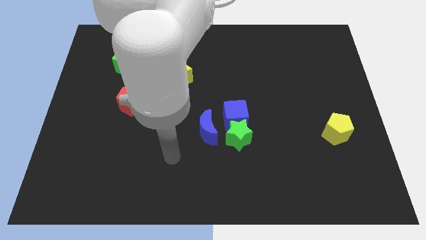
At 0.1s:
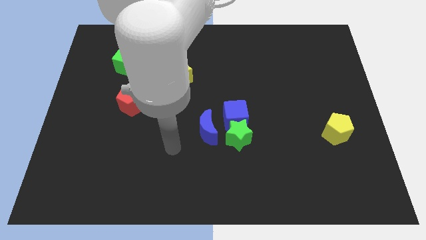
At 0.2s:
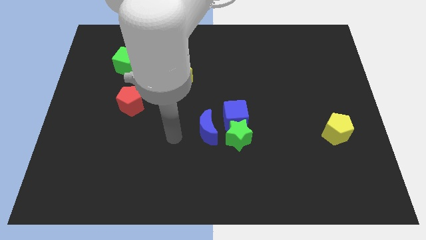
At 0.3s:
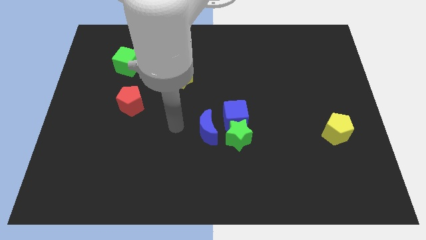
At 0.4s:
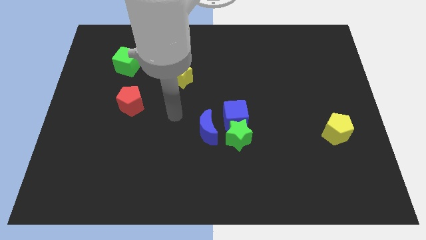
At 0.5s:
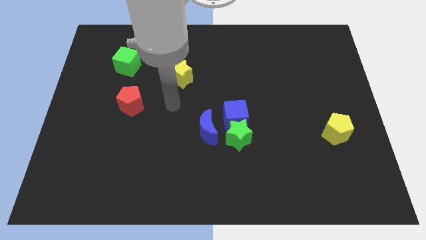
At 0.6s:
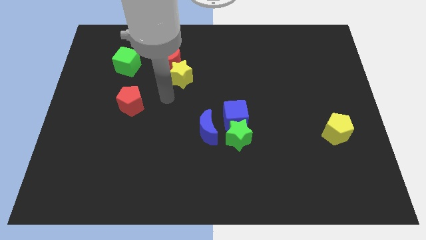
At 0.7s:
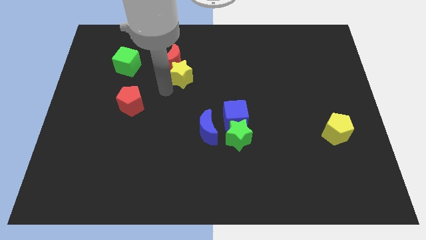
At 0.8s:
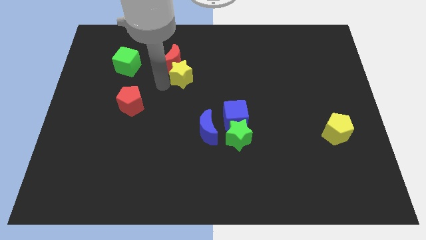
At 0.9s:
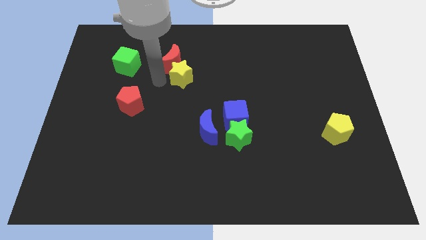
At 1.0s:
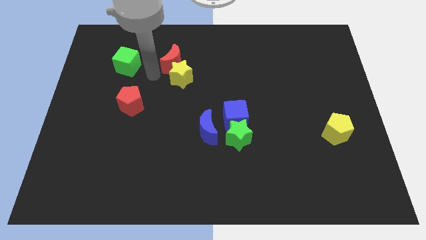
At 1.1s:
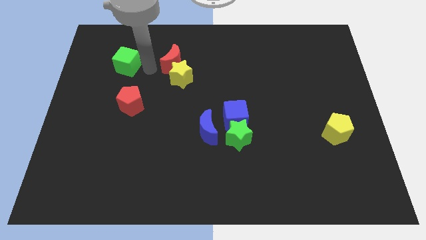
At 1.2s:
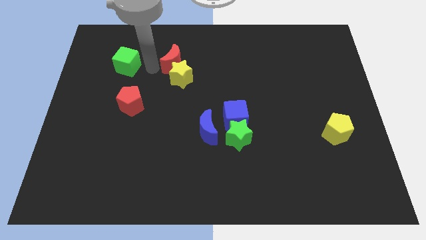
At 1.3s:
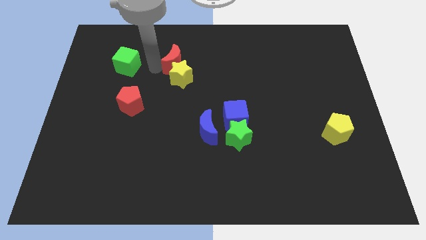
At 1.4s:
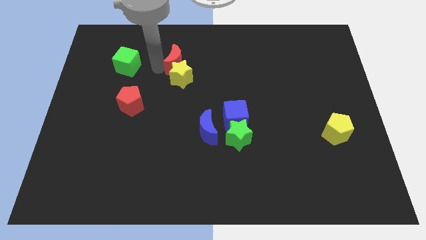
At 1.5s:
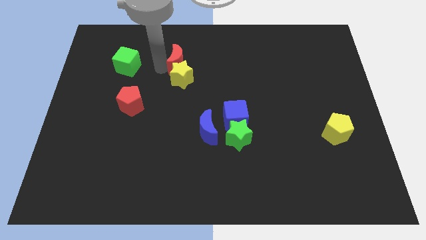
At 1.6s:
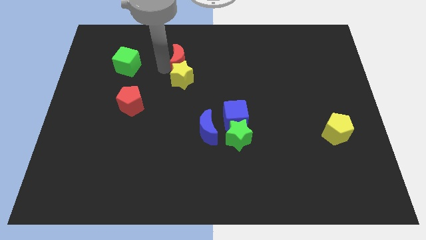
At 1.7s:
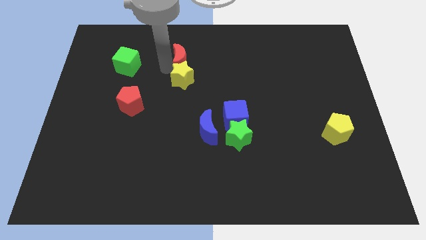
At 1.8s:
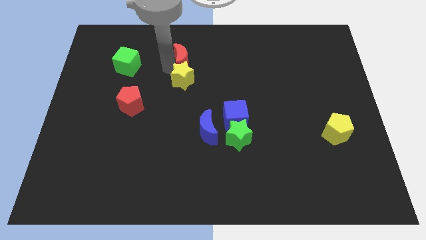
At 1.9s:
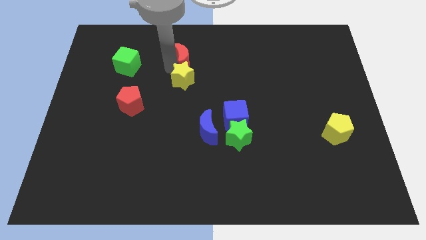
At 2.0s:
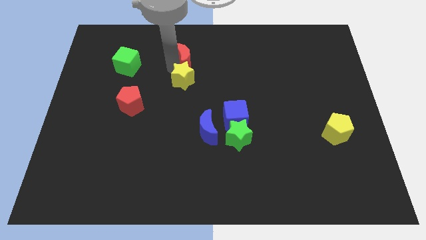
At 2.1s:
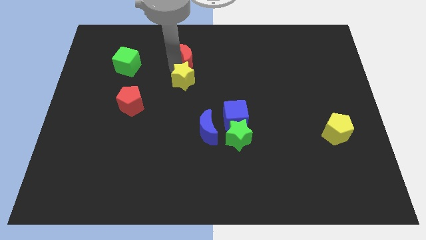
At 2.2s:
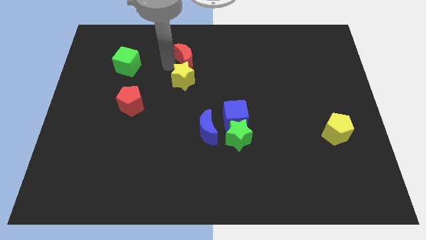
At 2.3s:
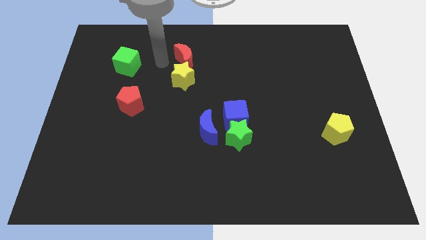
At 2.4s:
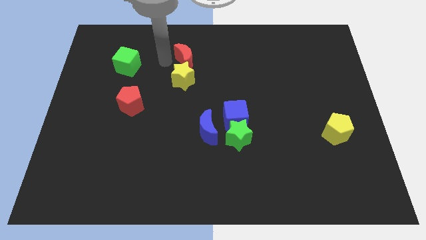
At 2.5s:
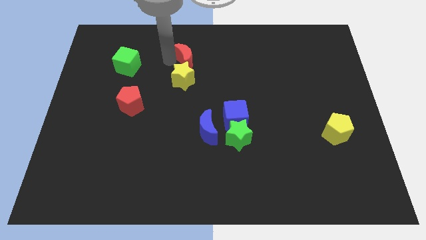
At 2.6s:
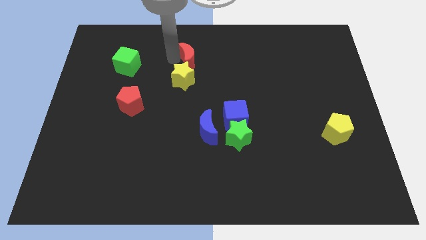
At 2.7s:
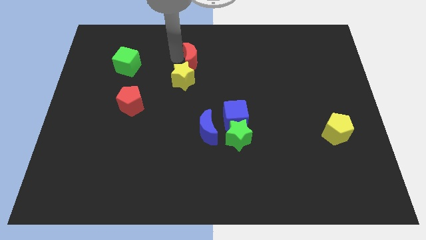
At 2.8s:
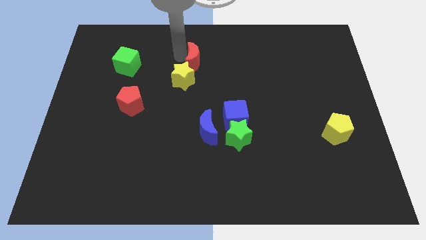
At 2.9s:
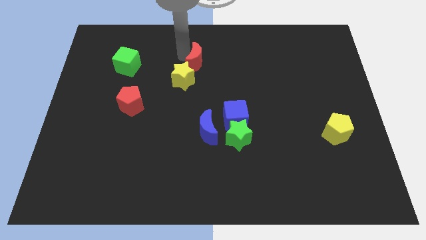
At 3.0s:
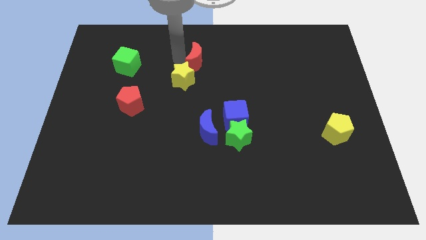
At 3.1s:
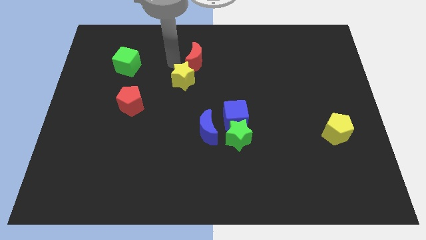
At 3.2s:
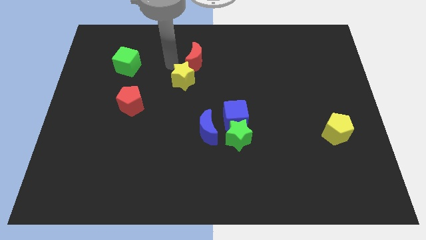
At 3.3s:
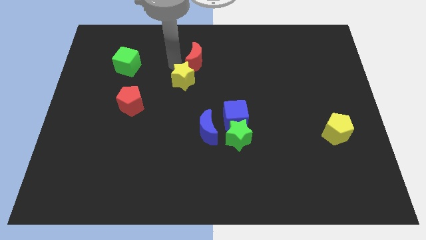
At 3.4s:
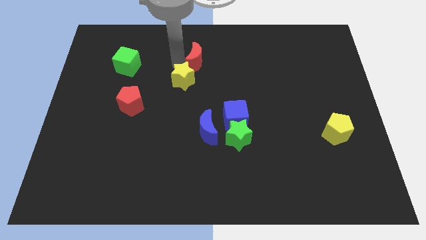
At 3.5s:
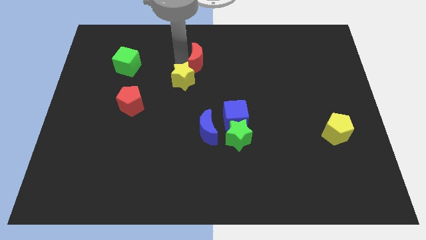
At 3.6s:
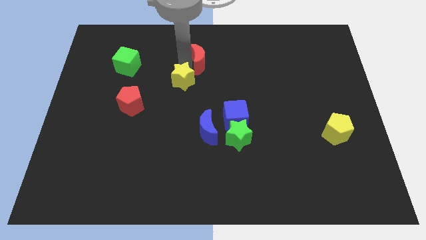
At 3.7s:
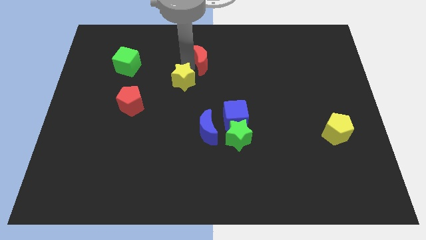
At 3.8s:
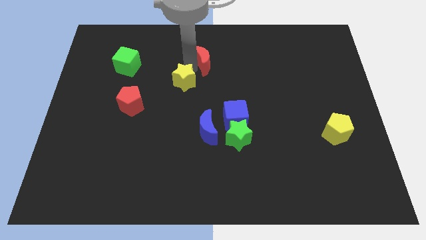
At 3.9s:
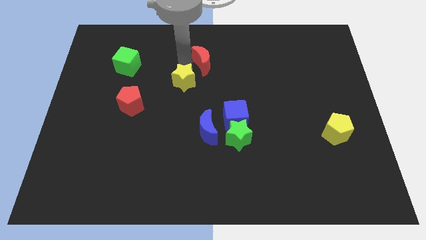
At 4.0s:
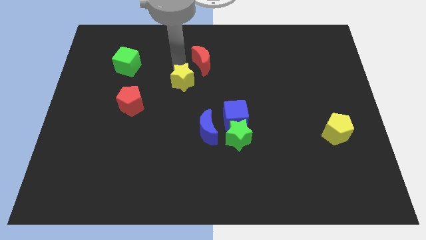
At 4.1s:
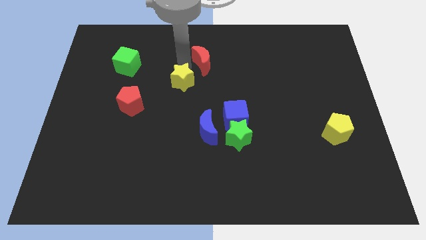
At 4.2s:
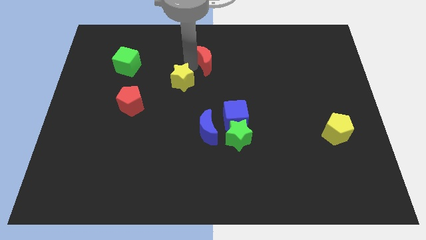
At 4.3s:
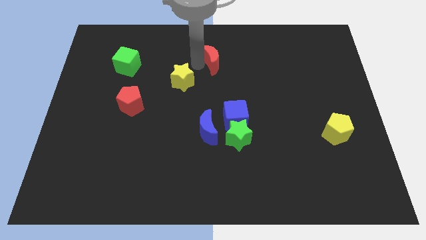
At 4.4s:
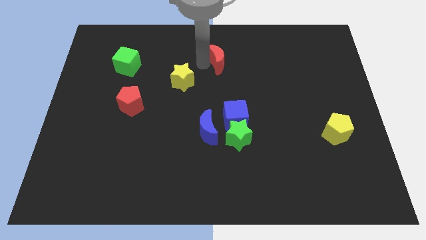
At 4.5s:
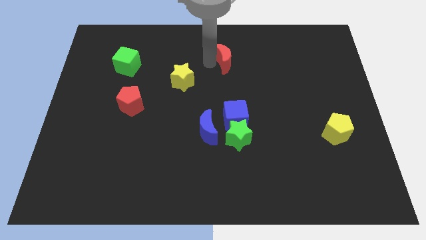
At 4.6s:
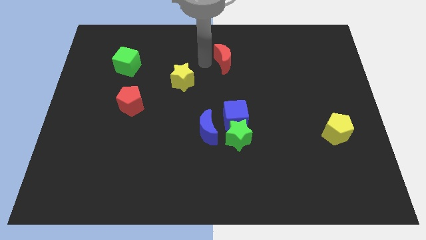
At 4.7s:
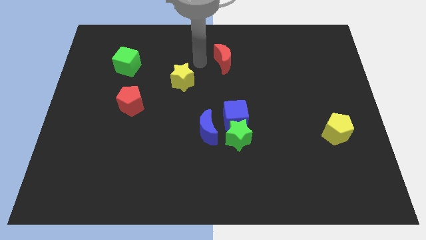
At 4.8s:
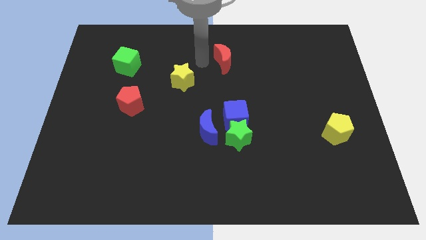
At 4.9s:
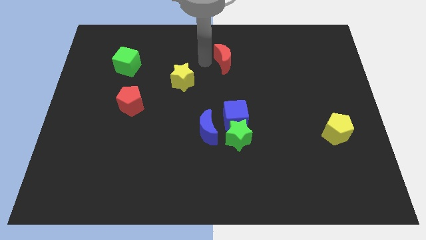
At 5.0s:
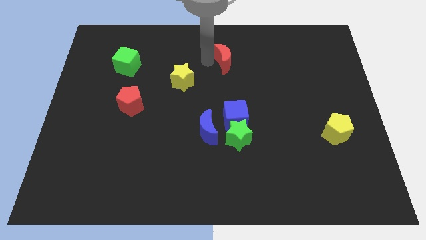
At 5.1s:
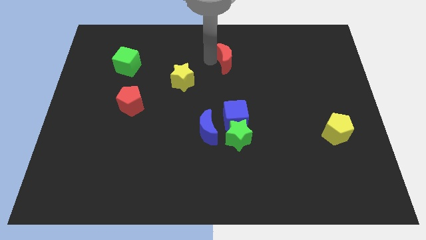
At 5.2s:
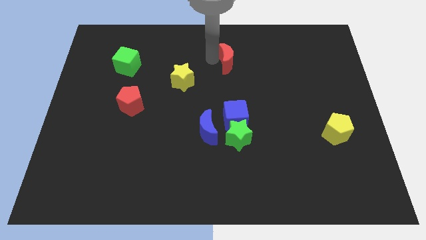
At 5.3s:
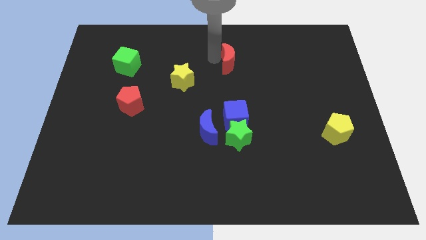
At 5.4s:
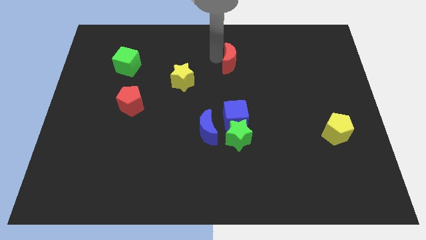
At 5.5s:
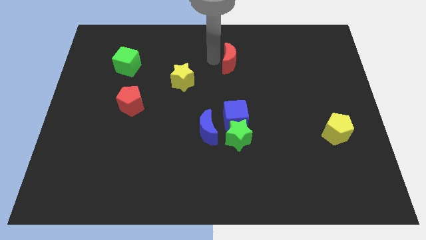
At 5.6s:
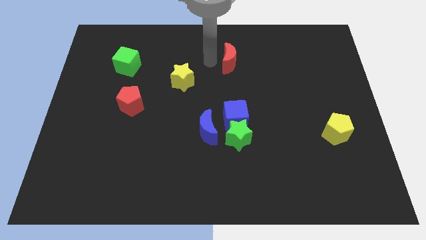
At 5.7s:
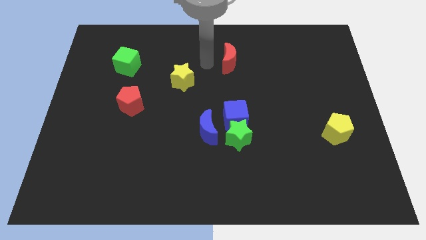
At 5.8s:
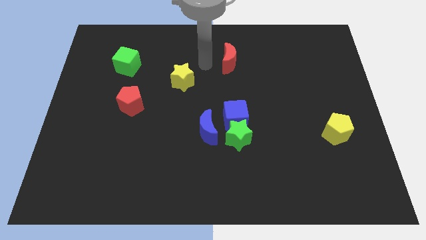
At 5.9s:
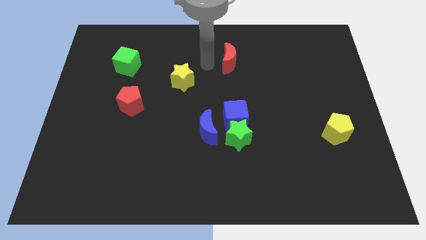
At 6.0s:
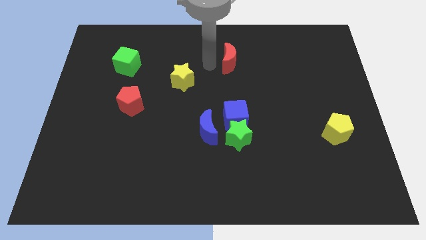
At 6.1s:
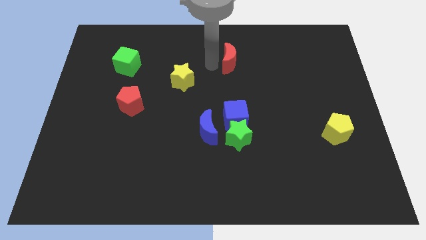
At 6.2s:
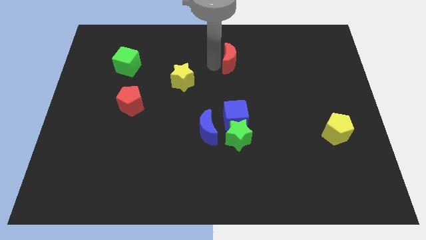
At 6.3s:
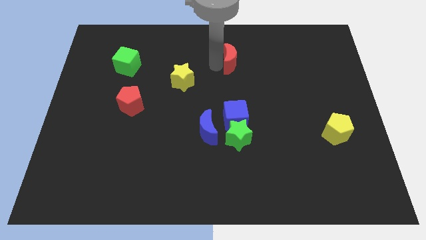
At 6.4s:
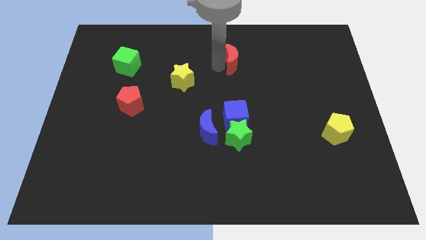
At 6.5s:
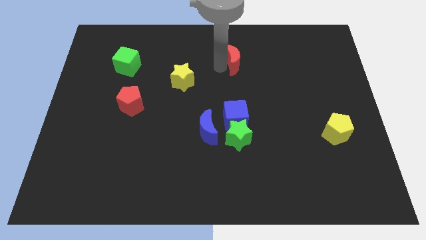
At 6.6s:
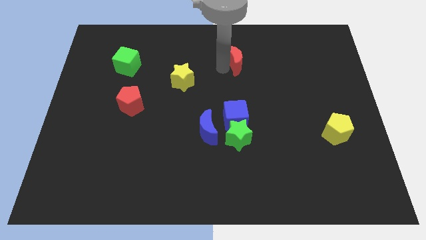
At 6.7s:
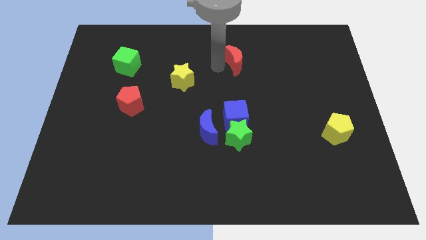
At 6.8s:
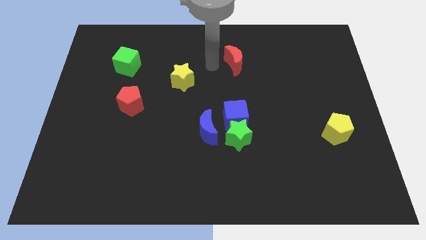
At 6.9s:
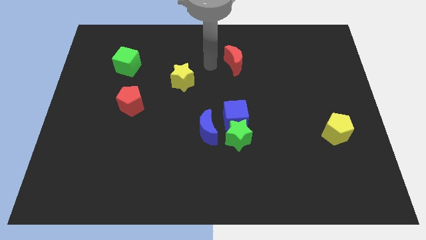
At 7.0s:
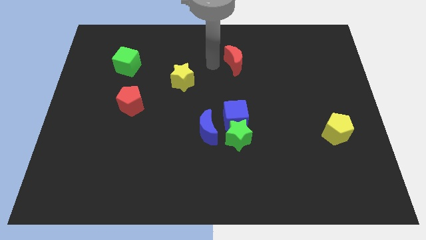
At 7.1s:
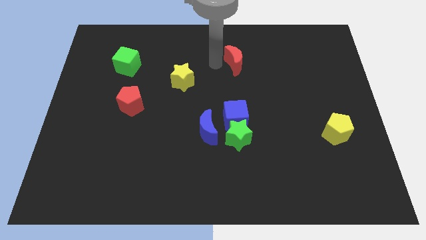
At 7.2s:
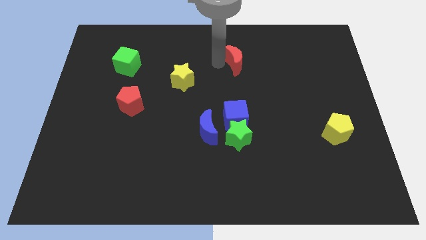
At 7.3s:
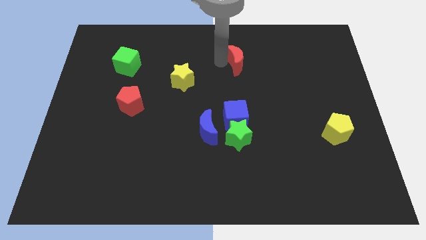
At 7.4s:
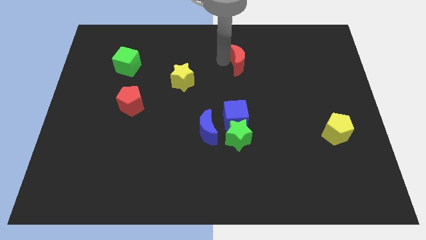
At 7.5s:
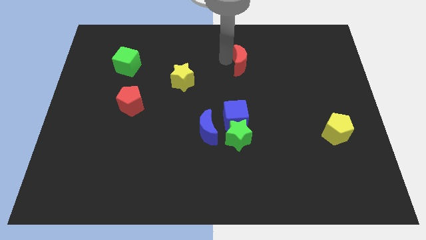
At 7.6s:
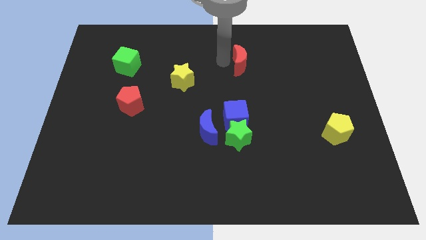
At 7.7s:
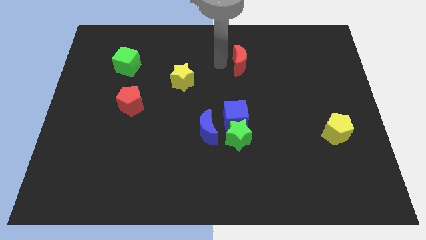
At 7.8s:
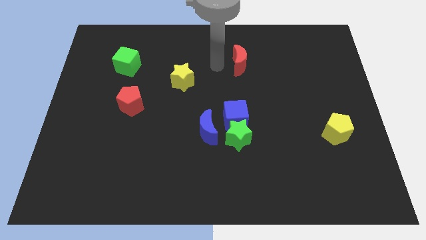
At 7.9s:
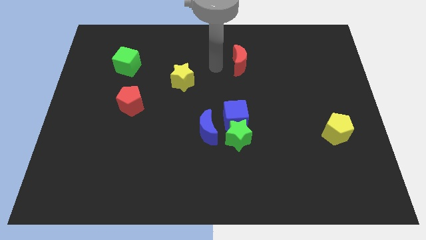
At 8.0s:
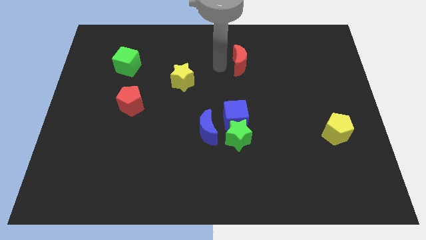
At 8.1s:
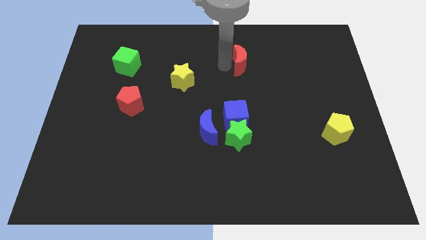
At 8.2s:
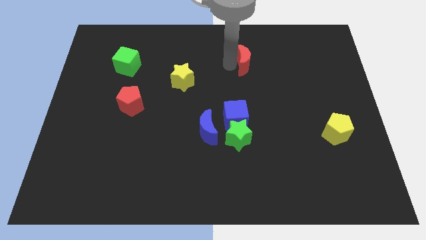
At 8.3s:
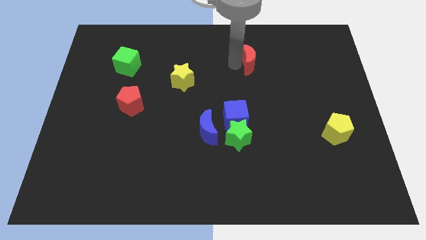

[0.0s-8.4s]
move the red moon right
